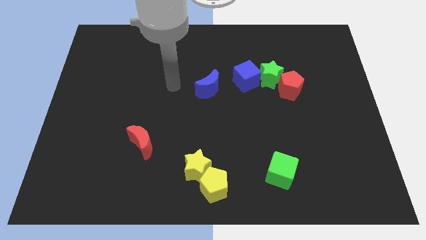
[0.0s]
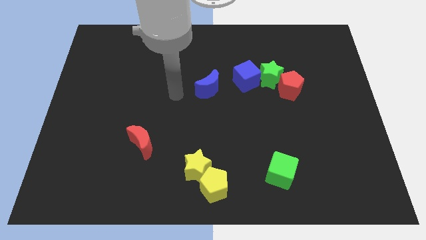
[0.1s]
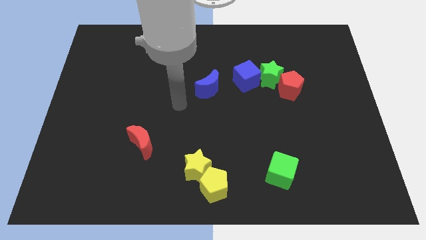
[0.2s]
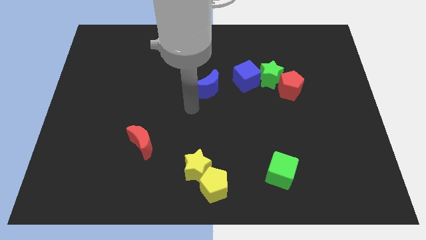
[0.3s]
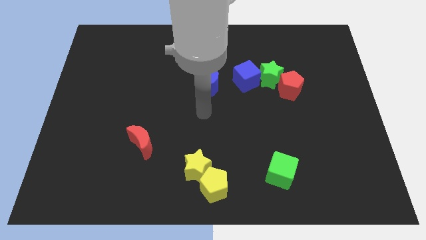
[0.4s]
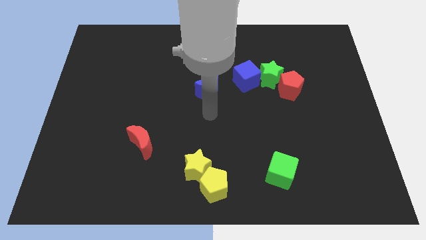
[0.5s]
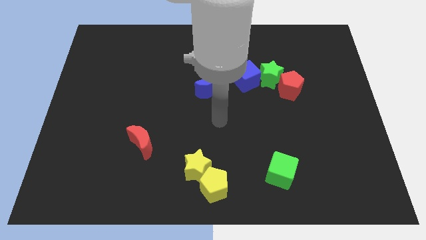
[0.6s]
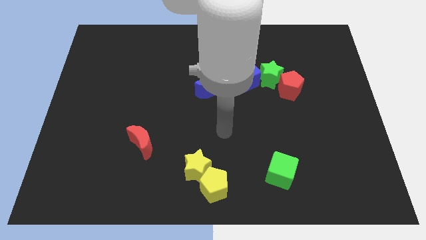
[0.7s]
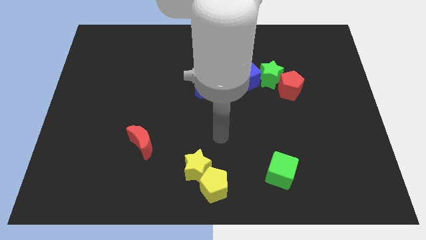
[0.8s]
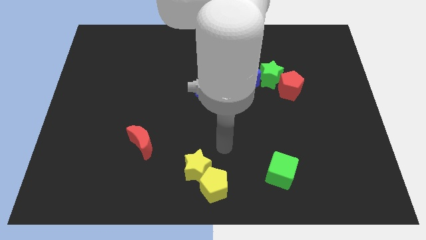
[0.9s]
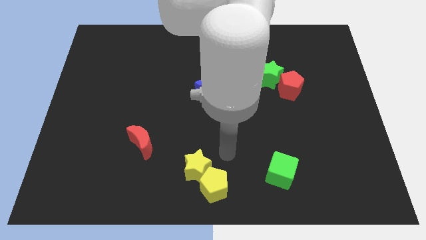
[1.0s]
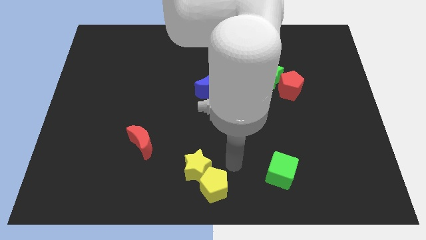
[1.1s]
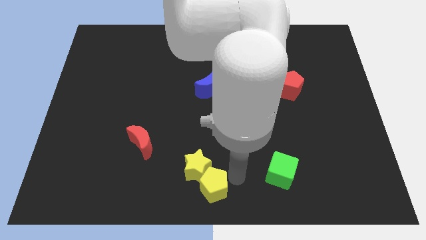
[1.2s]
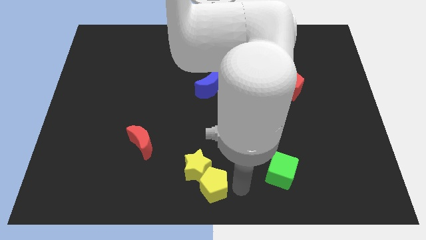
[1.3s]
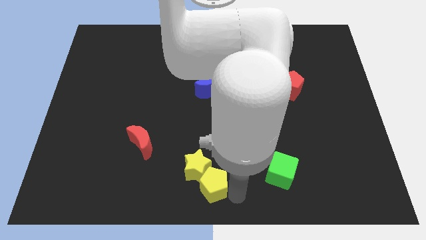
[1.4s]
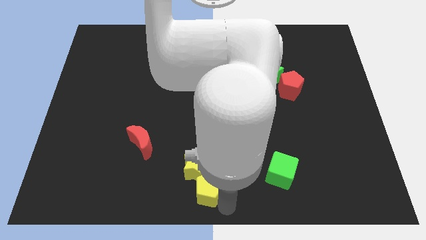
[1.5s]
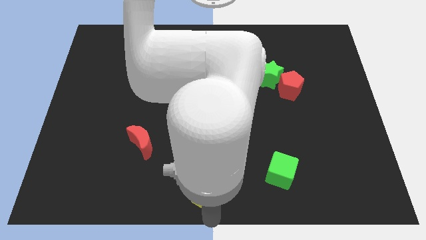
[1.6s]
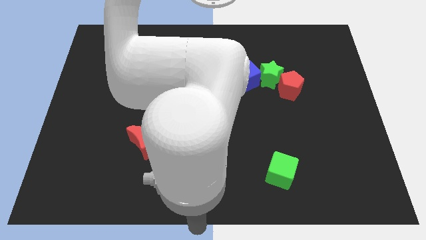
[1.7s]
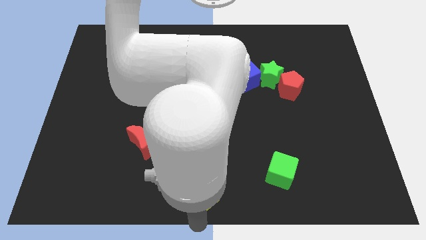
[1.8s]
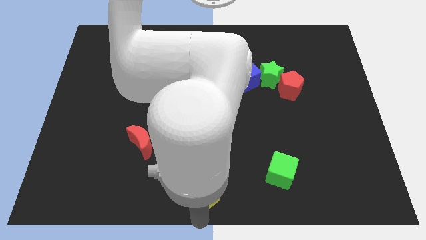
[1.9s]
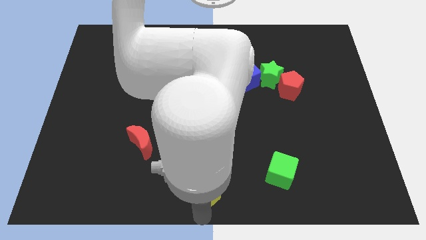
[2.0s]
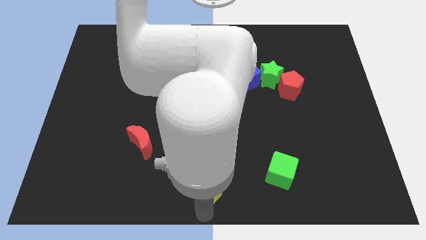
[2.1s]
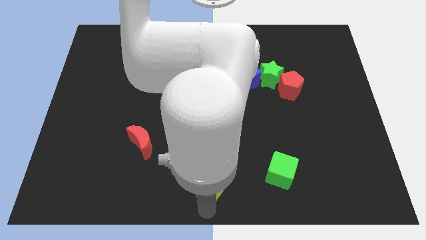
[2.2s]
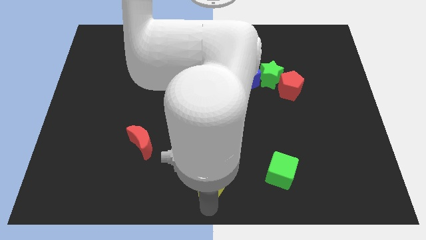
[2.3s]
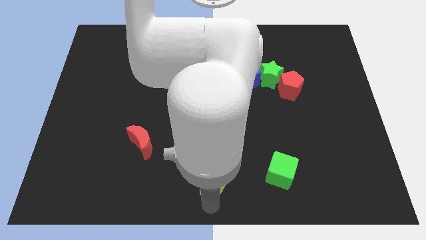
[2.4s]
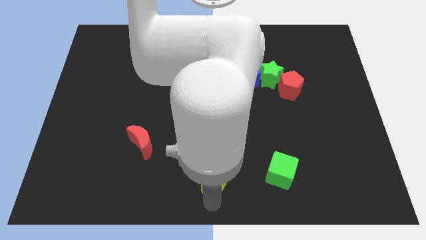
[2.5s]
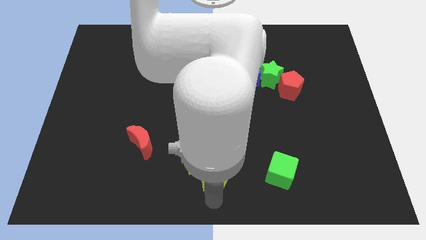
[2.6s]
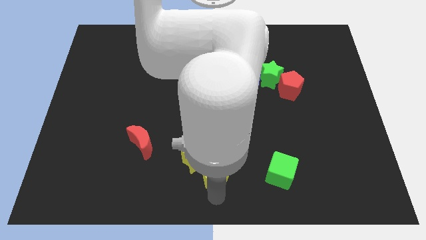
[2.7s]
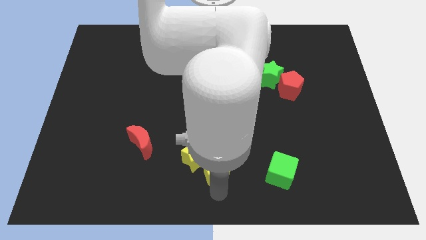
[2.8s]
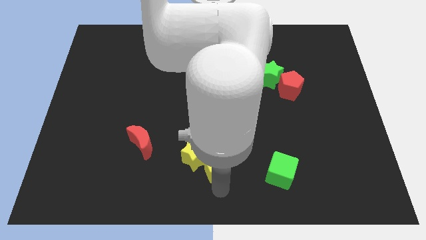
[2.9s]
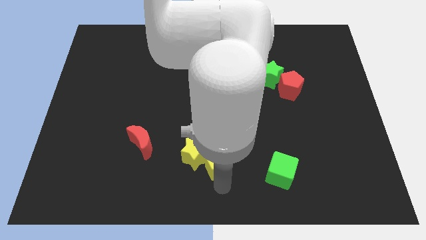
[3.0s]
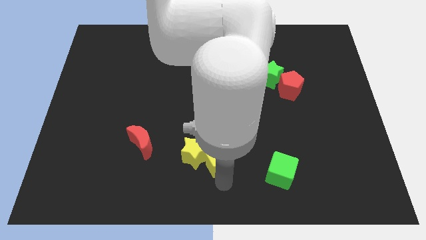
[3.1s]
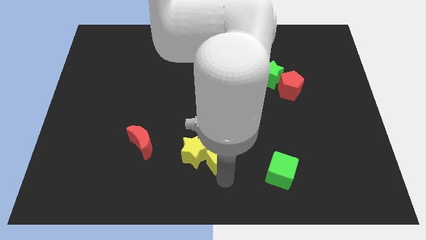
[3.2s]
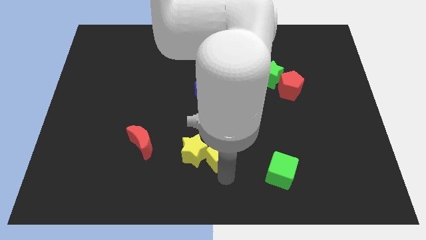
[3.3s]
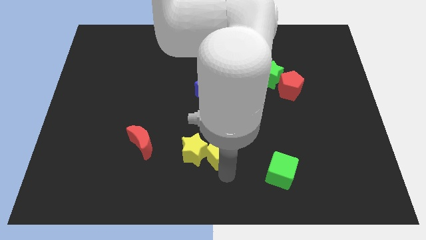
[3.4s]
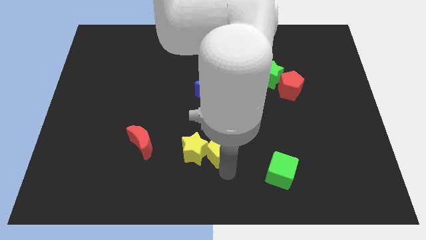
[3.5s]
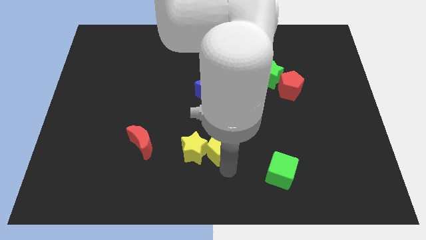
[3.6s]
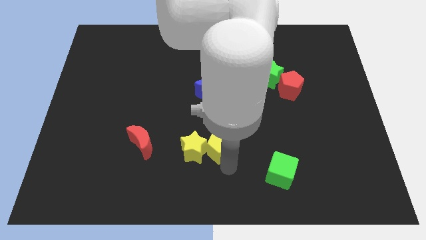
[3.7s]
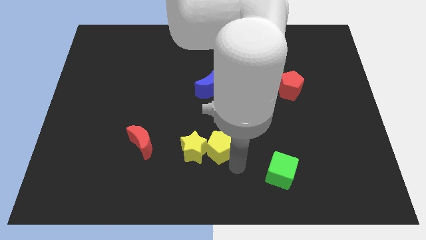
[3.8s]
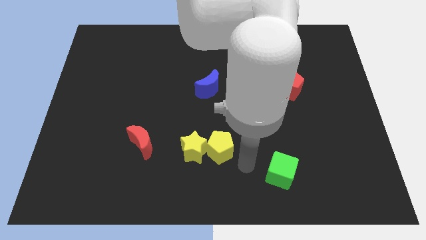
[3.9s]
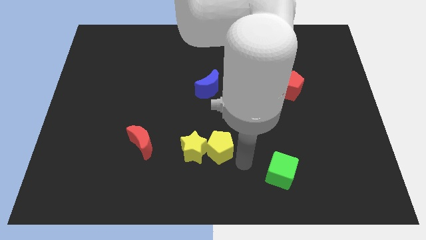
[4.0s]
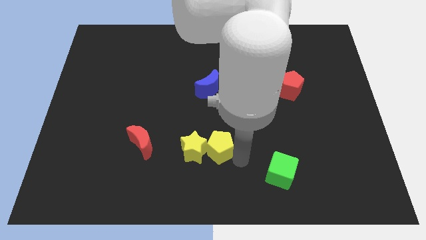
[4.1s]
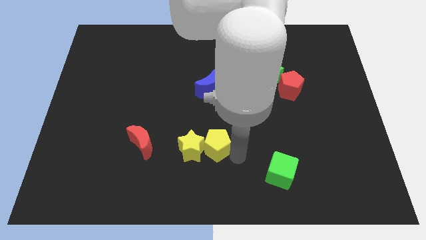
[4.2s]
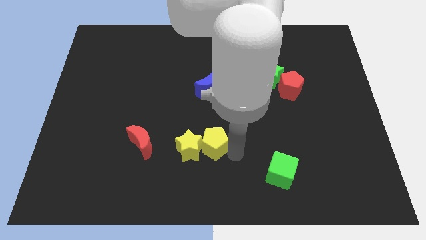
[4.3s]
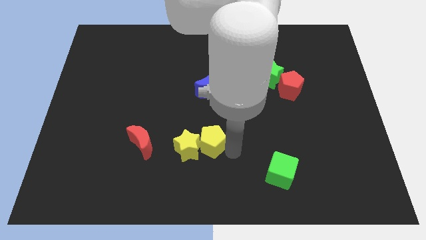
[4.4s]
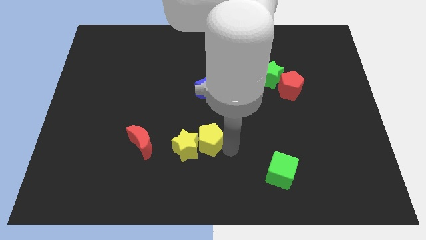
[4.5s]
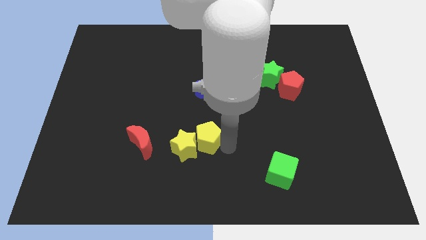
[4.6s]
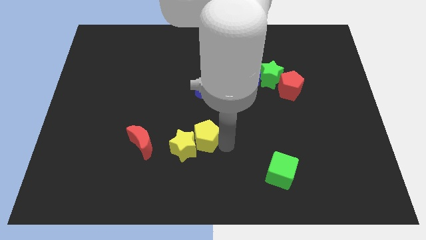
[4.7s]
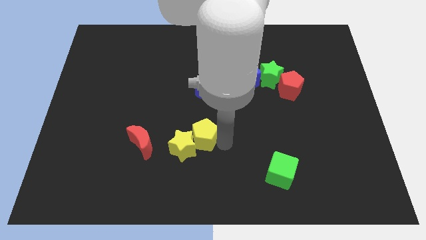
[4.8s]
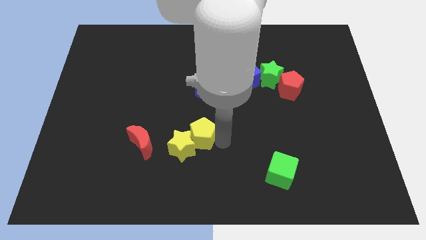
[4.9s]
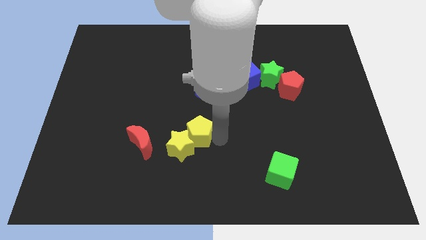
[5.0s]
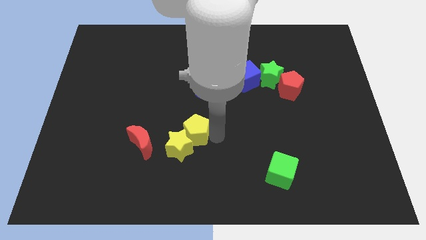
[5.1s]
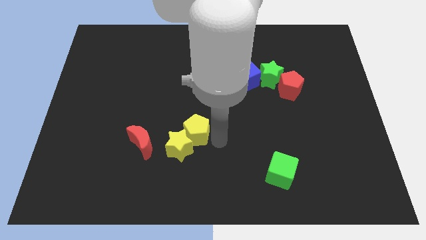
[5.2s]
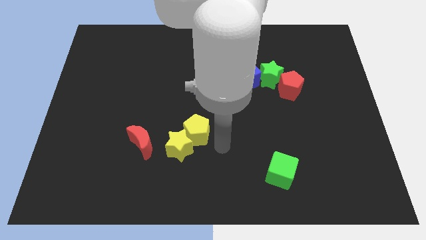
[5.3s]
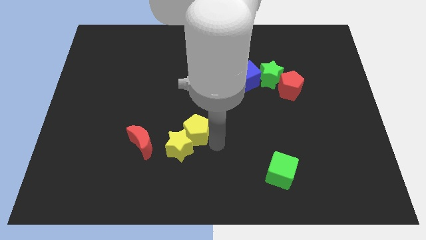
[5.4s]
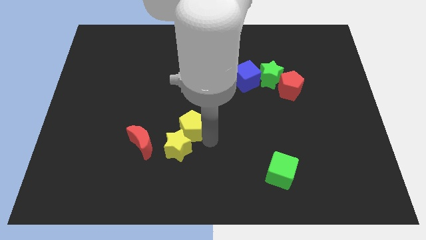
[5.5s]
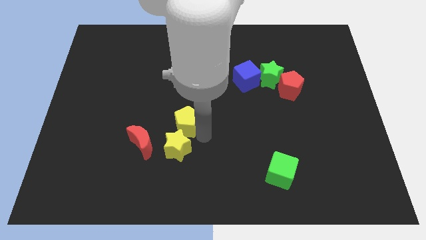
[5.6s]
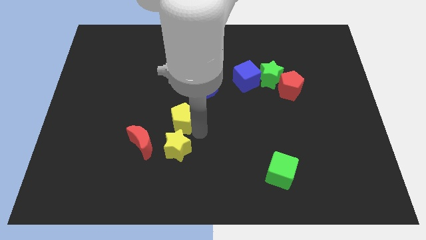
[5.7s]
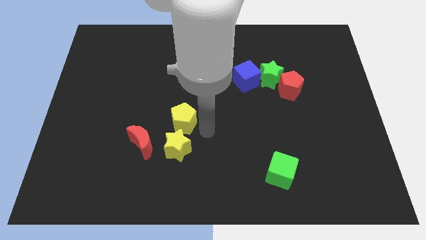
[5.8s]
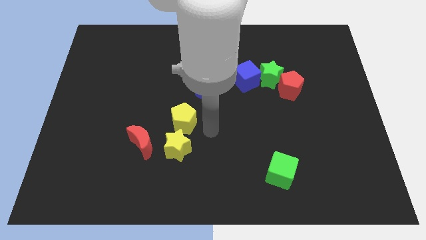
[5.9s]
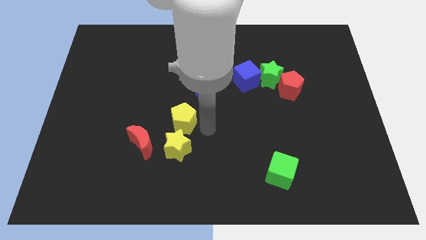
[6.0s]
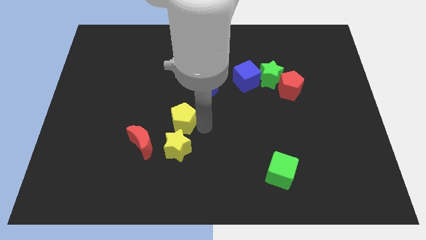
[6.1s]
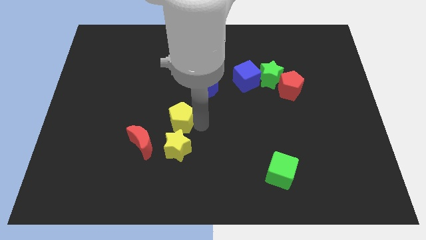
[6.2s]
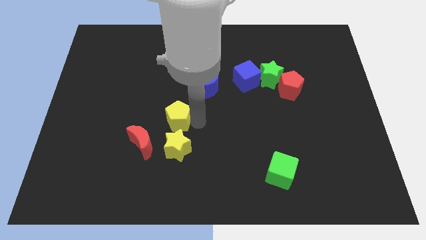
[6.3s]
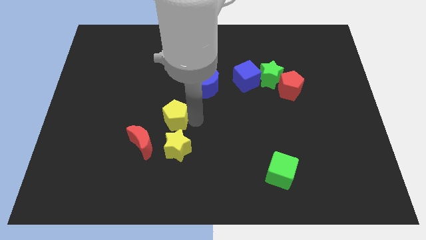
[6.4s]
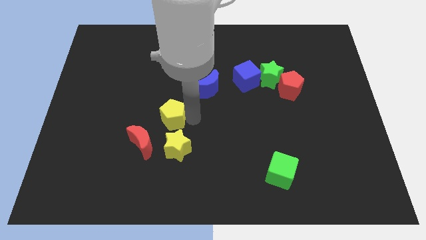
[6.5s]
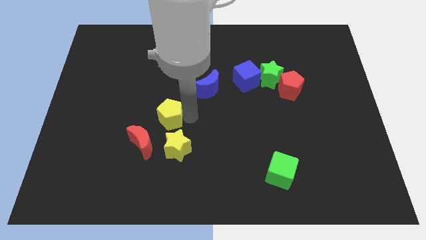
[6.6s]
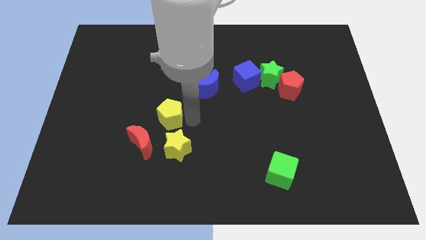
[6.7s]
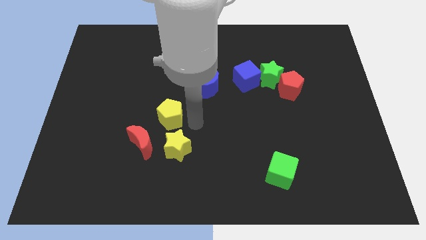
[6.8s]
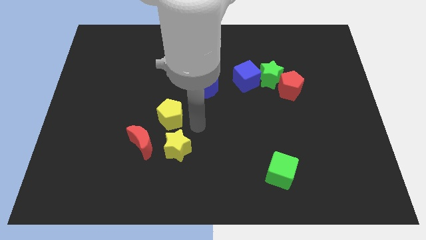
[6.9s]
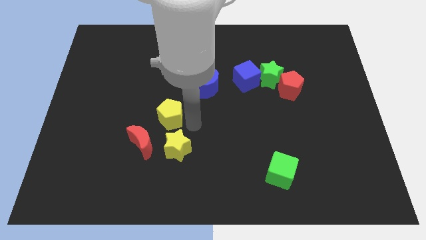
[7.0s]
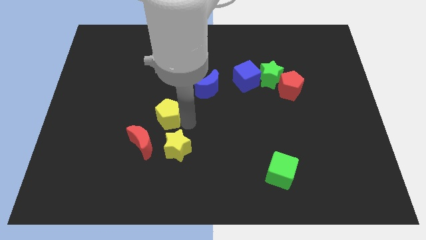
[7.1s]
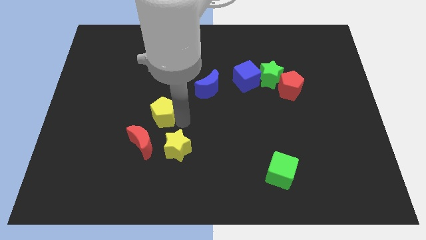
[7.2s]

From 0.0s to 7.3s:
push the yellow pentagon upwards and left diagonally

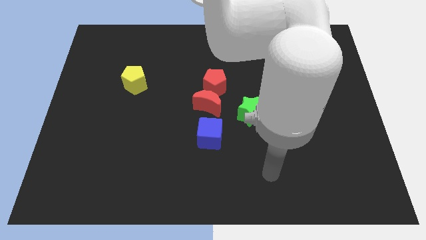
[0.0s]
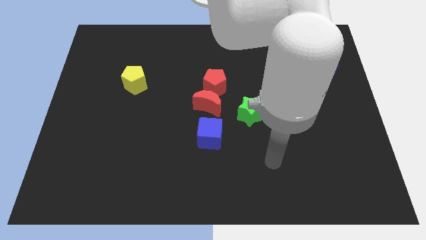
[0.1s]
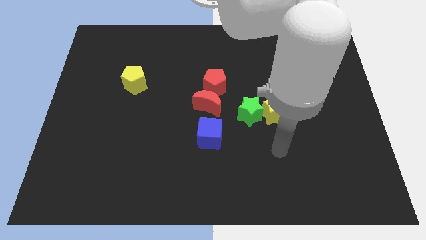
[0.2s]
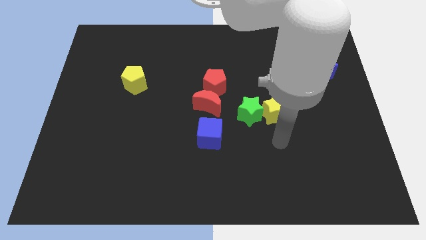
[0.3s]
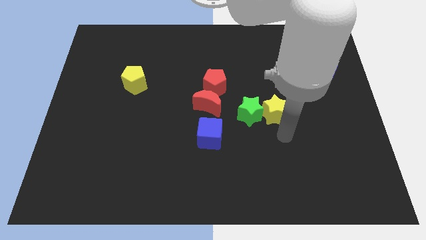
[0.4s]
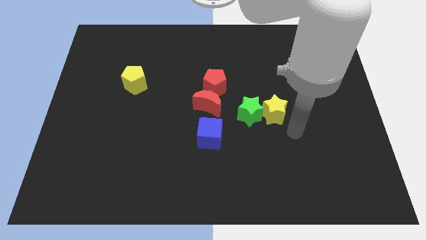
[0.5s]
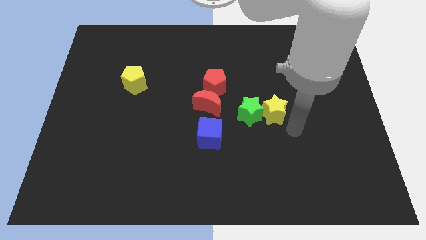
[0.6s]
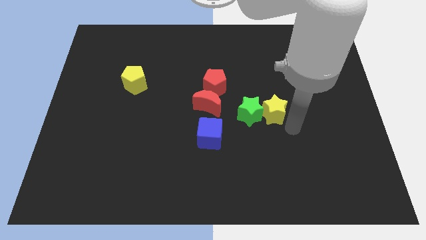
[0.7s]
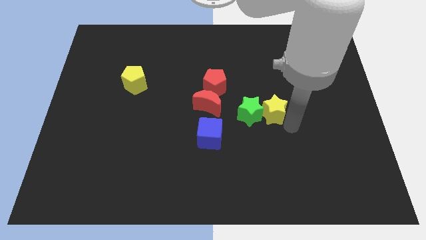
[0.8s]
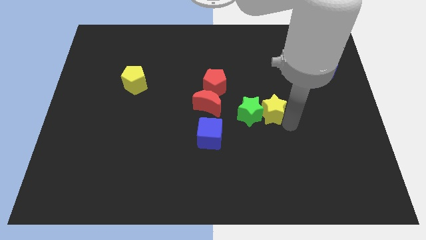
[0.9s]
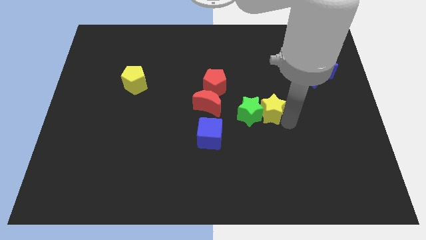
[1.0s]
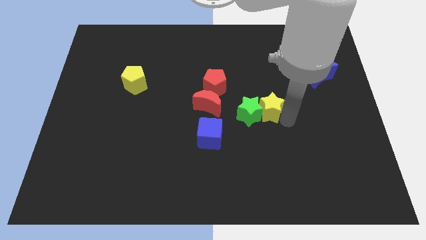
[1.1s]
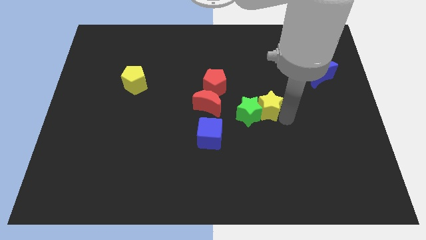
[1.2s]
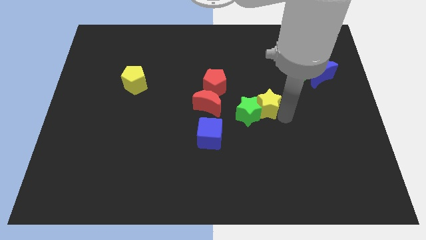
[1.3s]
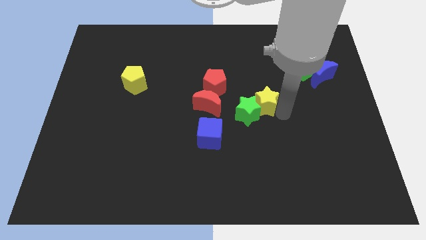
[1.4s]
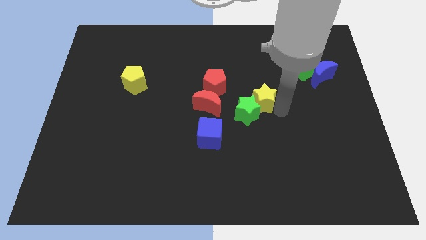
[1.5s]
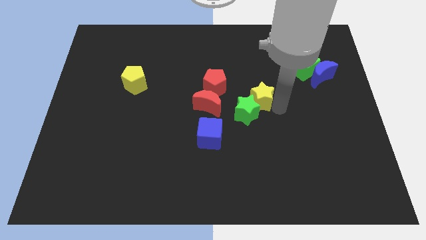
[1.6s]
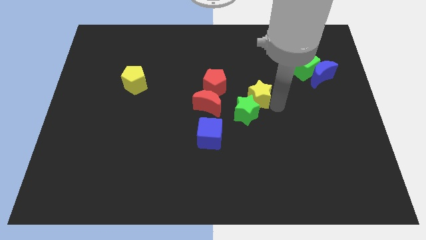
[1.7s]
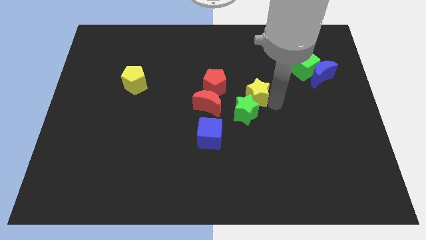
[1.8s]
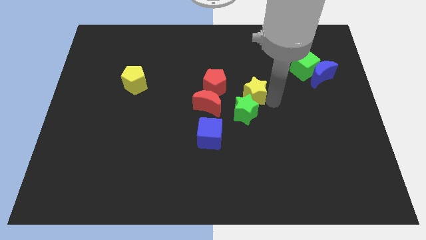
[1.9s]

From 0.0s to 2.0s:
slightly push the yellow star upwards and then left
